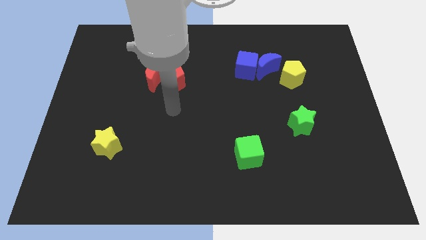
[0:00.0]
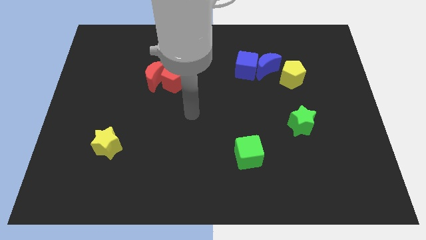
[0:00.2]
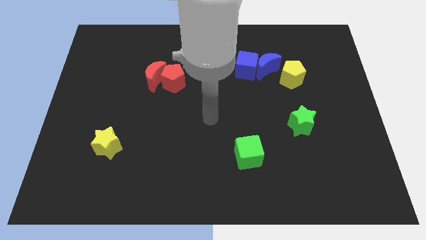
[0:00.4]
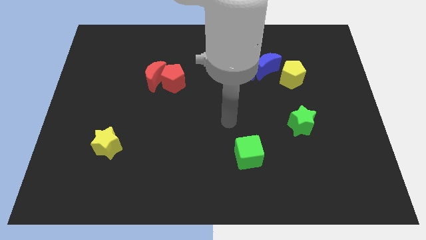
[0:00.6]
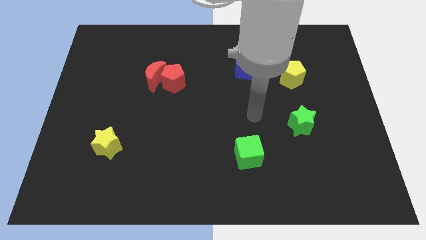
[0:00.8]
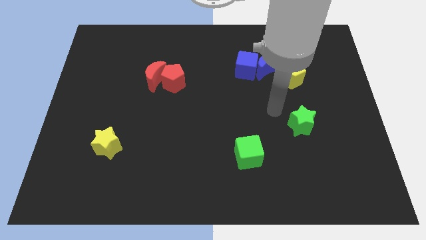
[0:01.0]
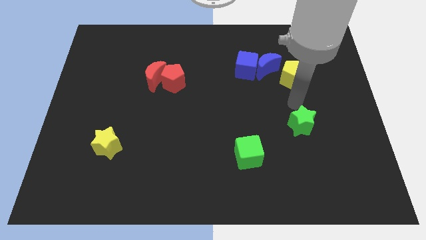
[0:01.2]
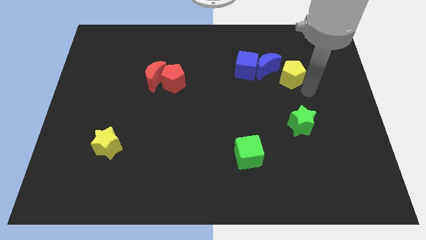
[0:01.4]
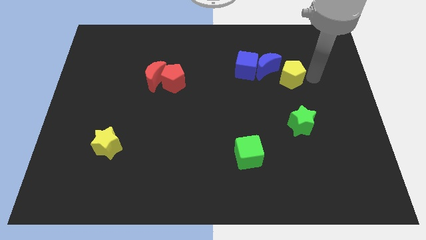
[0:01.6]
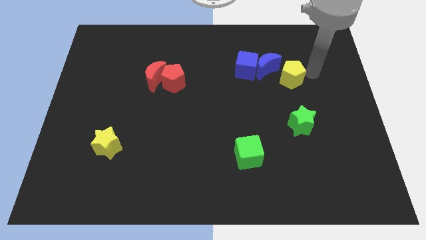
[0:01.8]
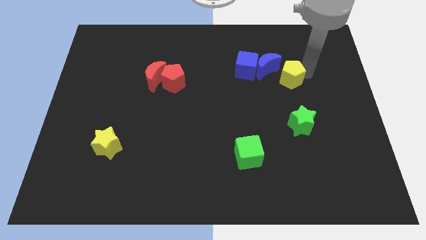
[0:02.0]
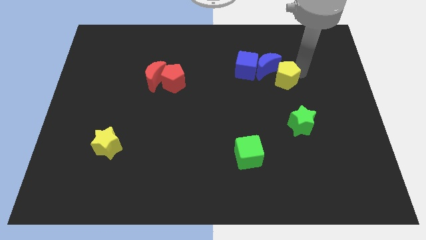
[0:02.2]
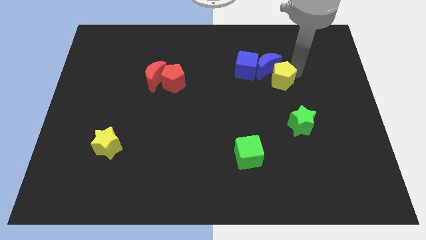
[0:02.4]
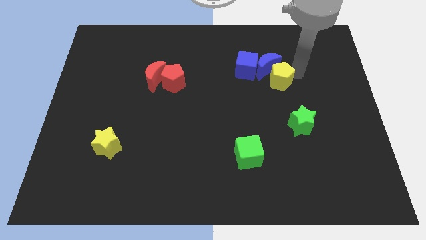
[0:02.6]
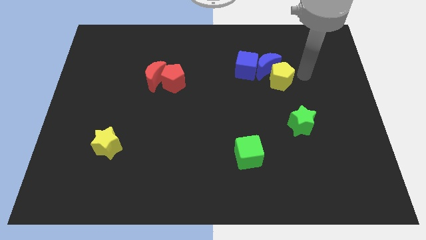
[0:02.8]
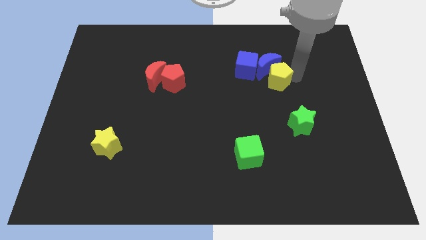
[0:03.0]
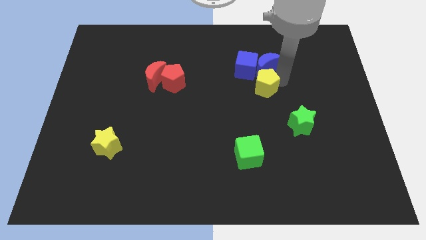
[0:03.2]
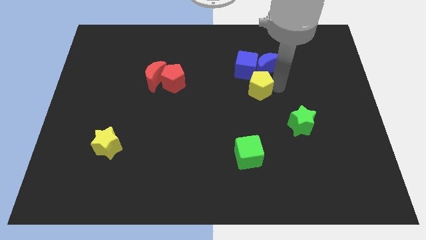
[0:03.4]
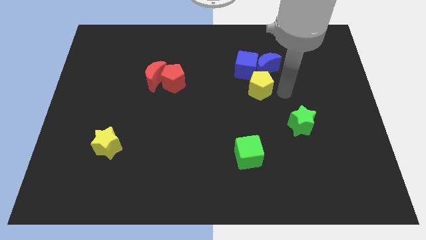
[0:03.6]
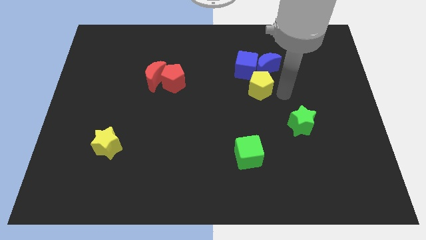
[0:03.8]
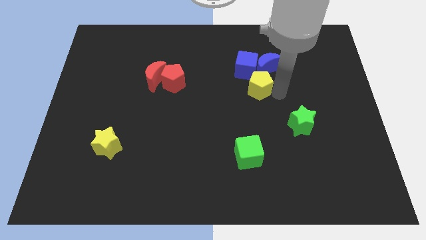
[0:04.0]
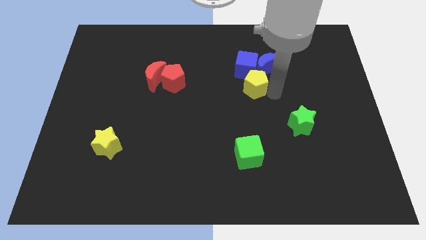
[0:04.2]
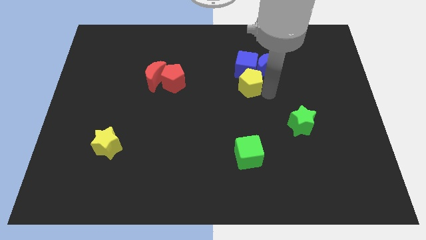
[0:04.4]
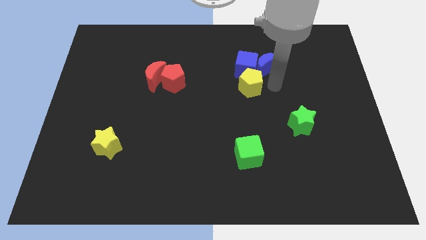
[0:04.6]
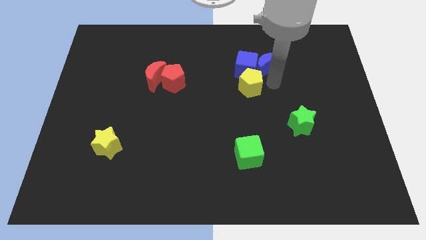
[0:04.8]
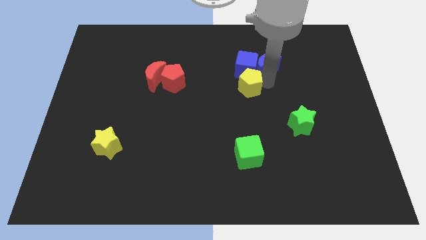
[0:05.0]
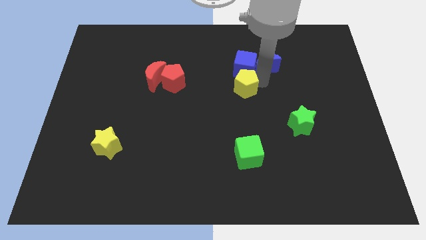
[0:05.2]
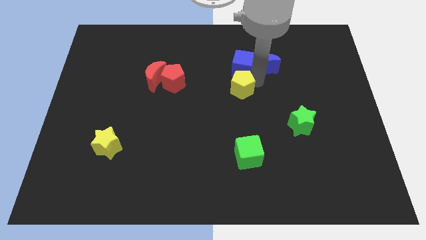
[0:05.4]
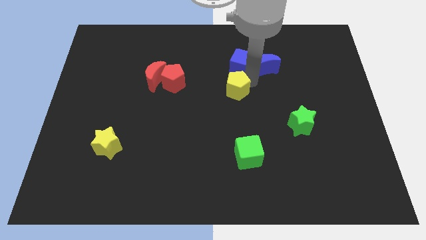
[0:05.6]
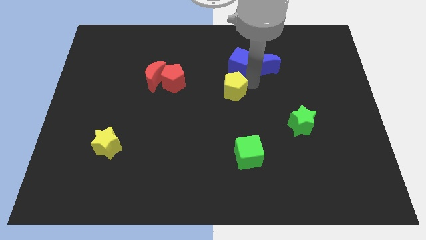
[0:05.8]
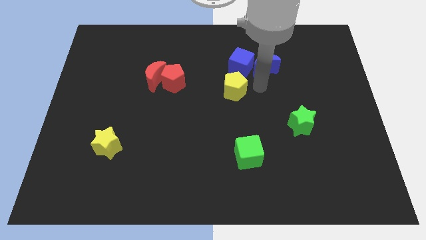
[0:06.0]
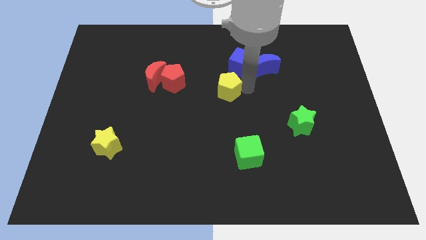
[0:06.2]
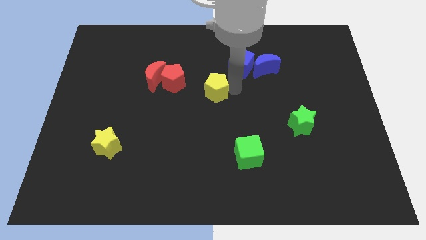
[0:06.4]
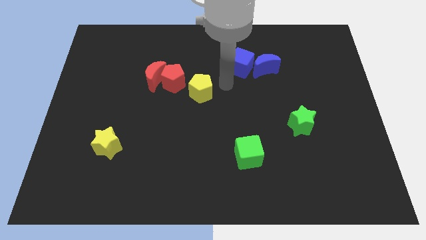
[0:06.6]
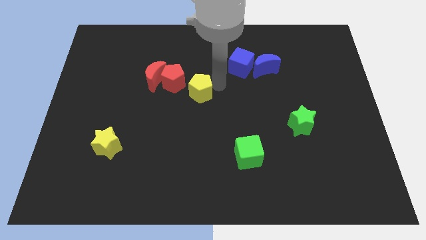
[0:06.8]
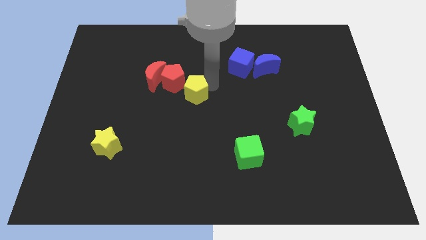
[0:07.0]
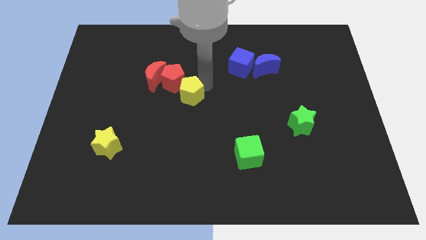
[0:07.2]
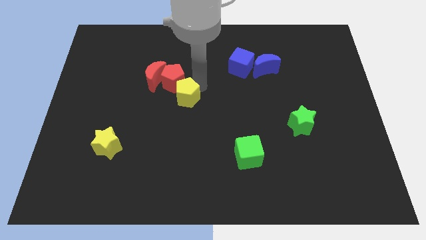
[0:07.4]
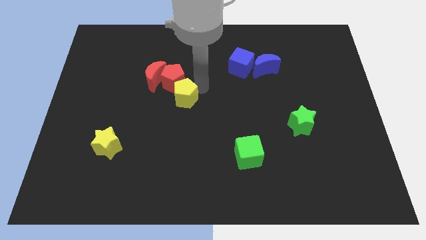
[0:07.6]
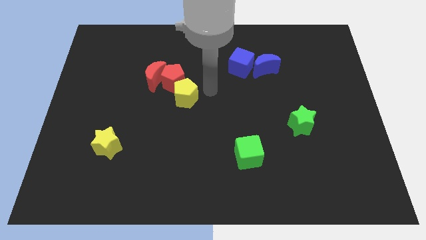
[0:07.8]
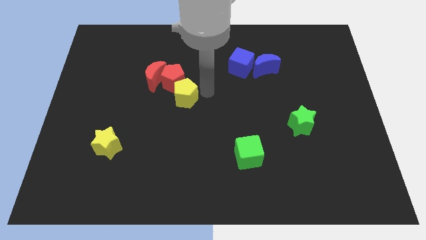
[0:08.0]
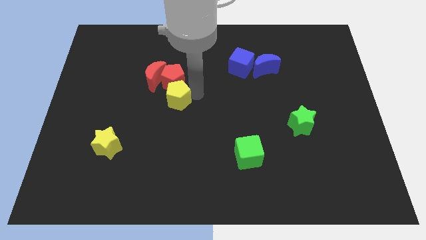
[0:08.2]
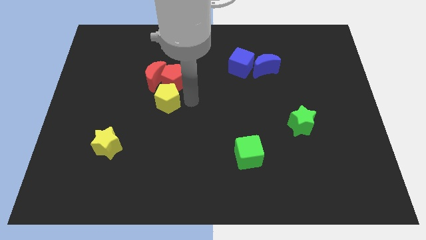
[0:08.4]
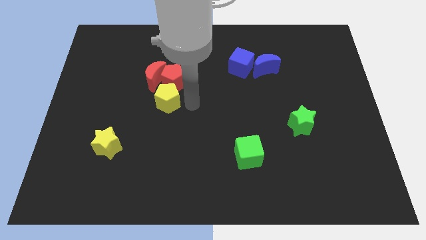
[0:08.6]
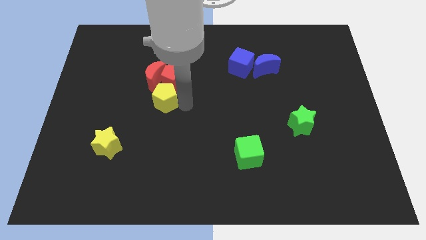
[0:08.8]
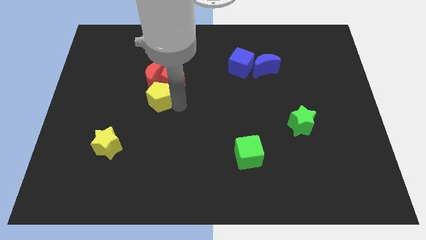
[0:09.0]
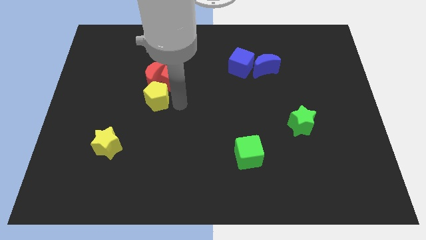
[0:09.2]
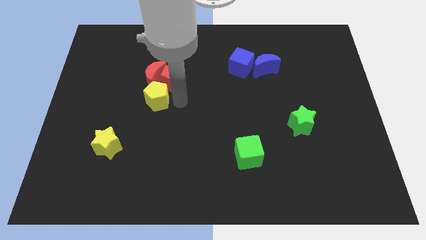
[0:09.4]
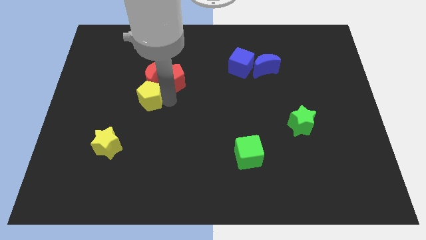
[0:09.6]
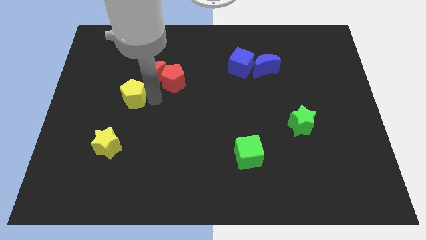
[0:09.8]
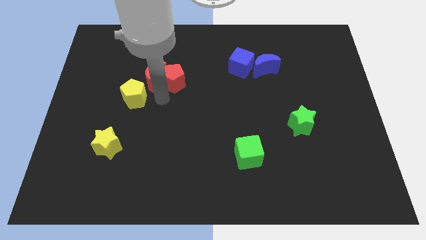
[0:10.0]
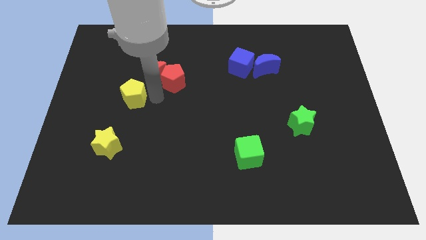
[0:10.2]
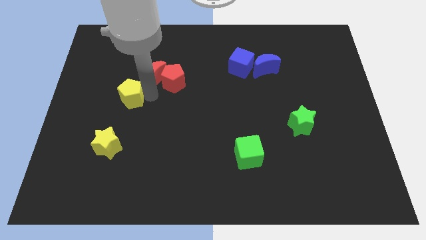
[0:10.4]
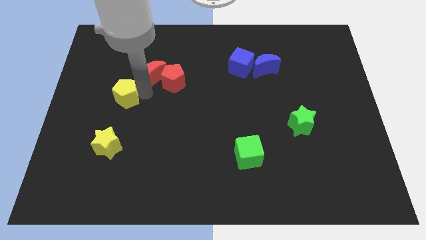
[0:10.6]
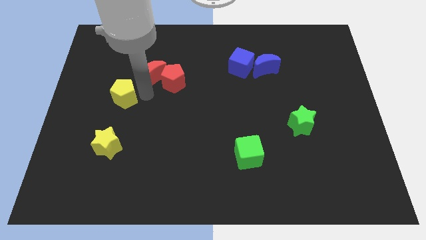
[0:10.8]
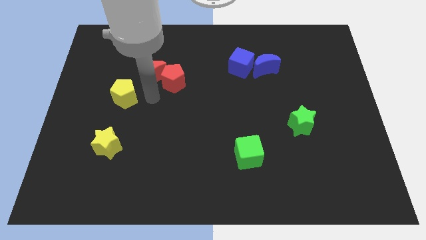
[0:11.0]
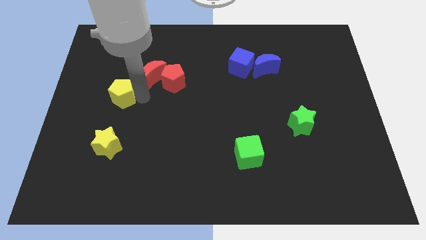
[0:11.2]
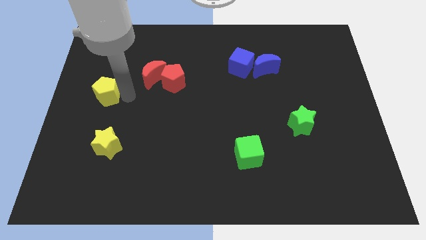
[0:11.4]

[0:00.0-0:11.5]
move the yellow pentagon to the left side

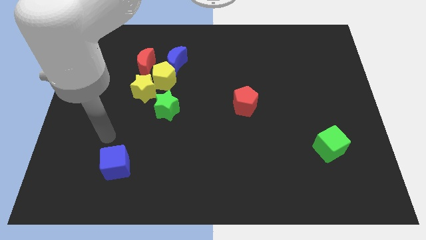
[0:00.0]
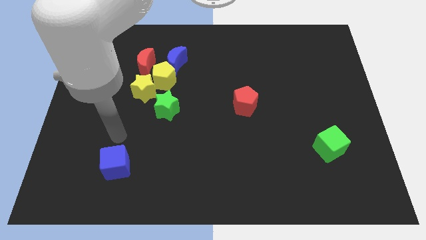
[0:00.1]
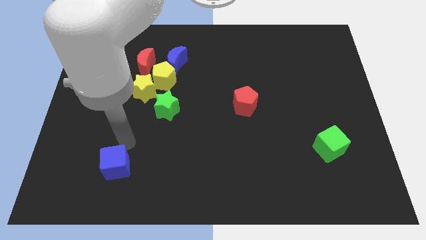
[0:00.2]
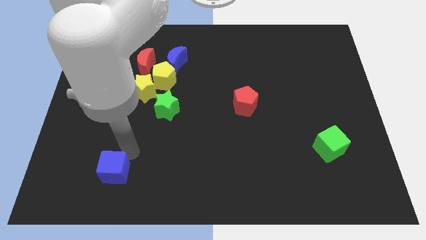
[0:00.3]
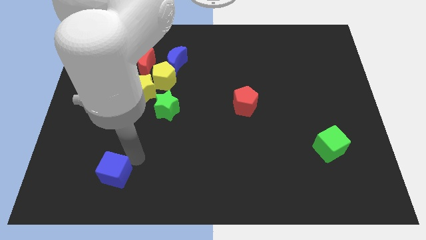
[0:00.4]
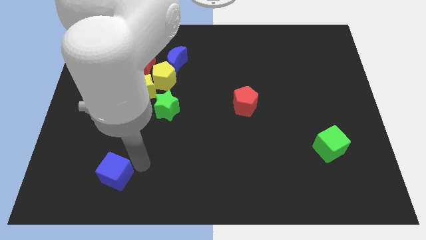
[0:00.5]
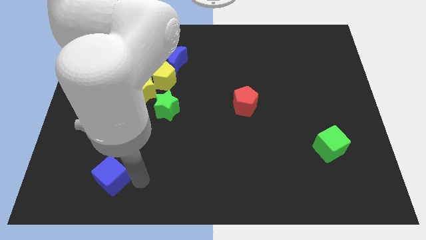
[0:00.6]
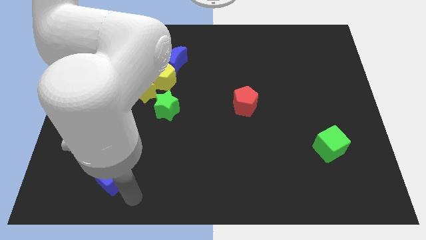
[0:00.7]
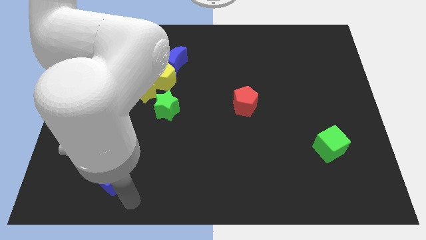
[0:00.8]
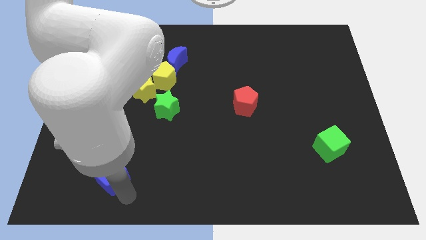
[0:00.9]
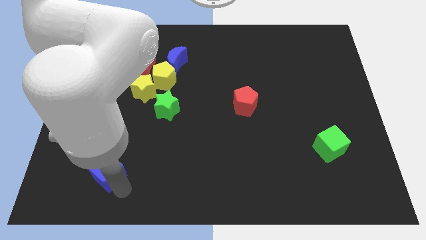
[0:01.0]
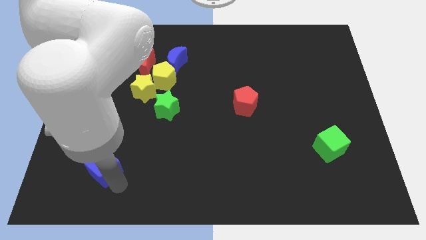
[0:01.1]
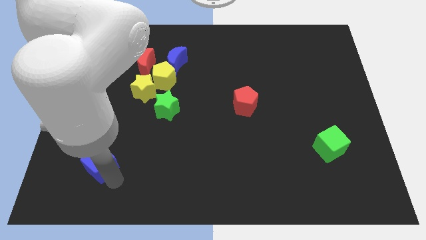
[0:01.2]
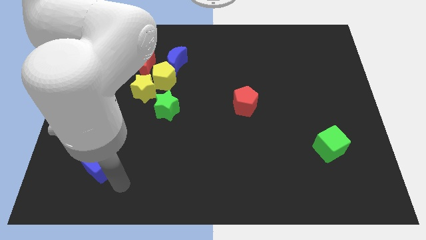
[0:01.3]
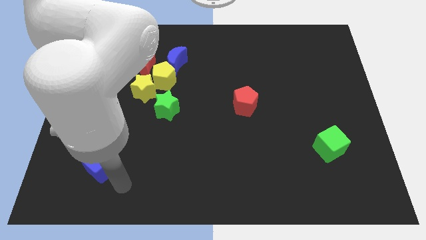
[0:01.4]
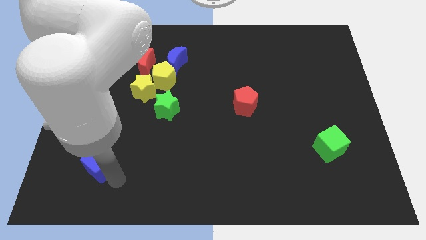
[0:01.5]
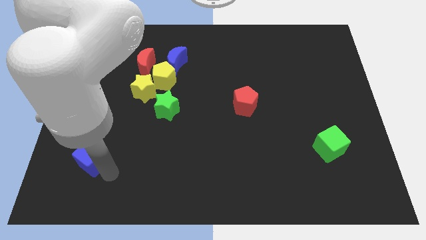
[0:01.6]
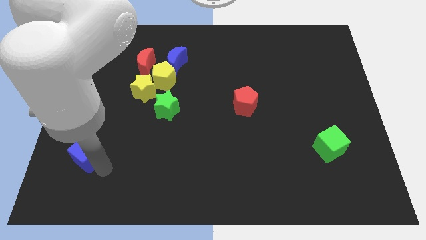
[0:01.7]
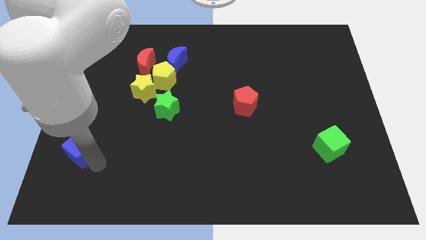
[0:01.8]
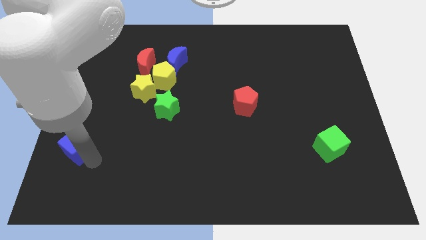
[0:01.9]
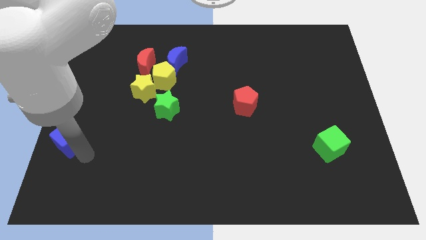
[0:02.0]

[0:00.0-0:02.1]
push the blue cube to the left side of the board
